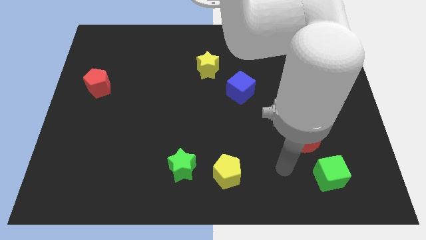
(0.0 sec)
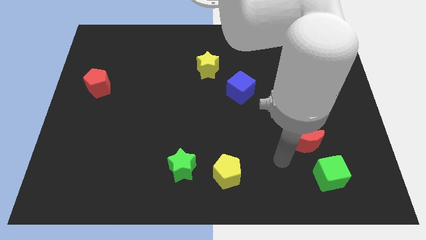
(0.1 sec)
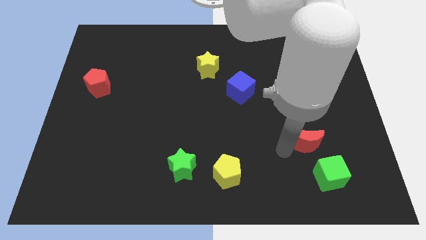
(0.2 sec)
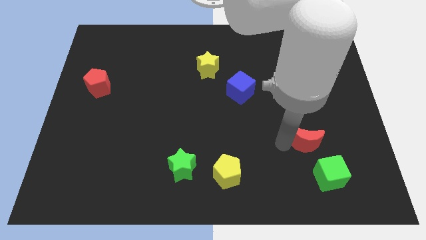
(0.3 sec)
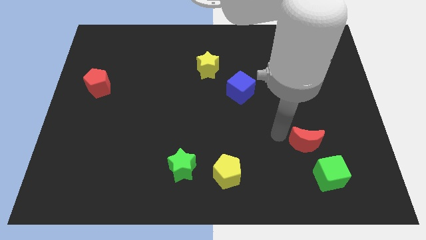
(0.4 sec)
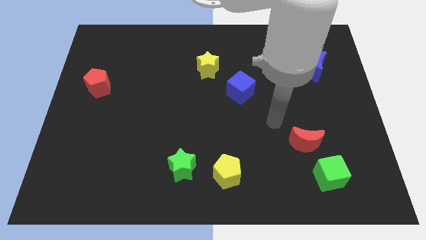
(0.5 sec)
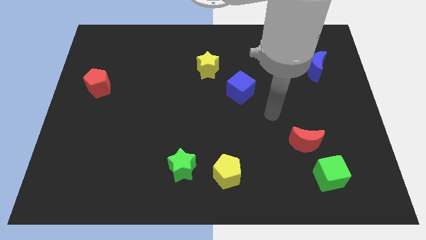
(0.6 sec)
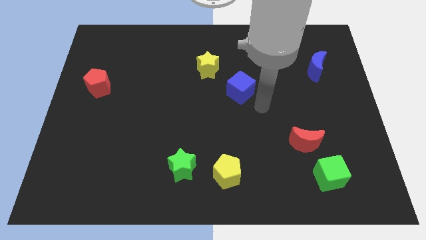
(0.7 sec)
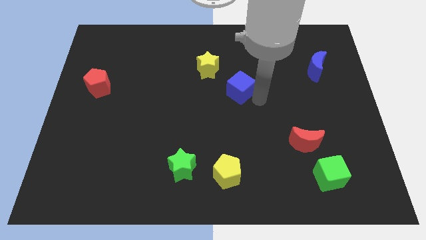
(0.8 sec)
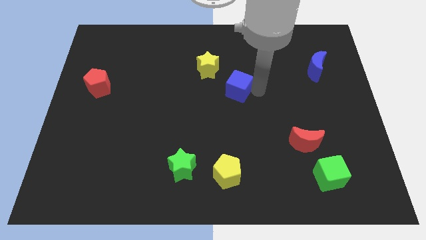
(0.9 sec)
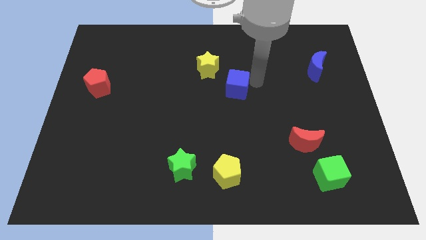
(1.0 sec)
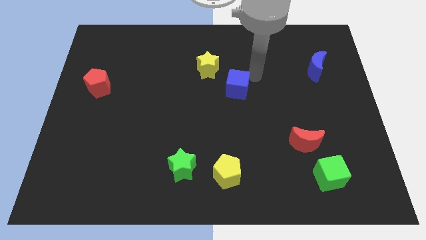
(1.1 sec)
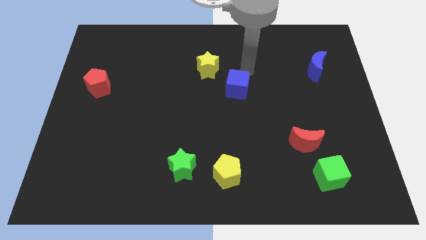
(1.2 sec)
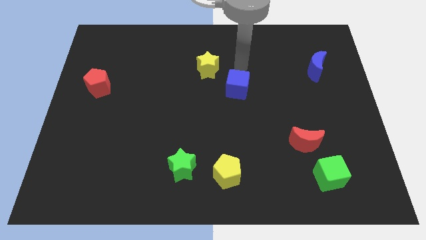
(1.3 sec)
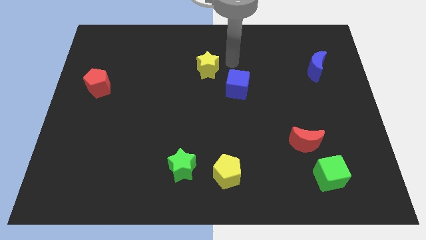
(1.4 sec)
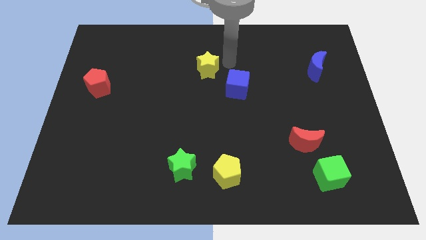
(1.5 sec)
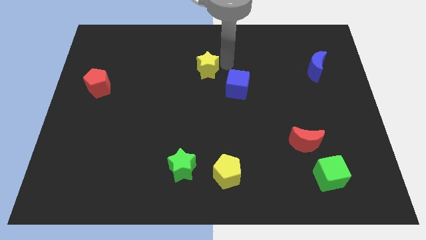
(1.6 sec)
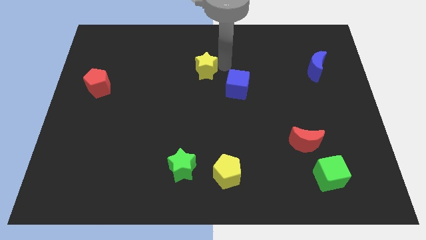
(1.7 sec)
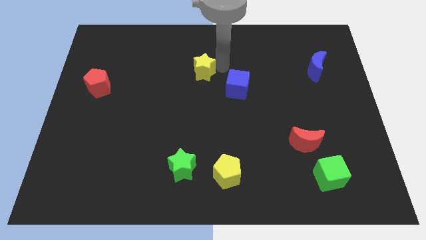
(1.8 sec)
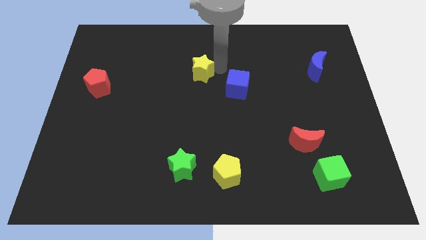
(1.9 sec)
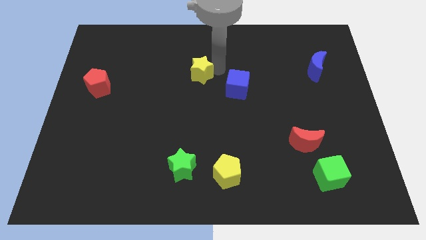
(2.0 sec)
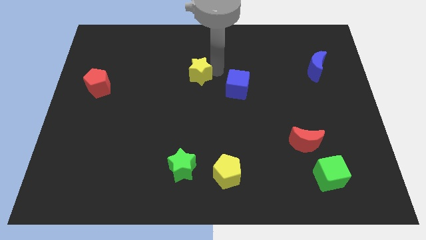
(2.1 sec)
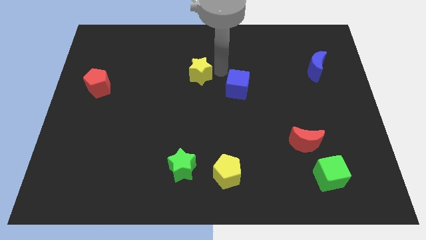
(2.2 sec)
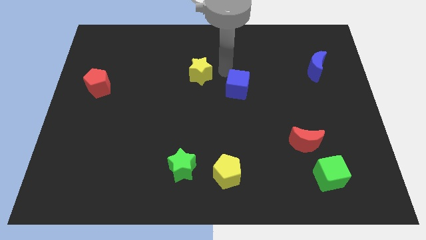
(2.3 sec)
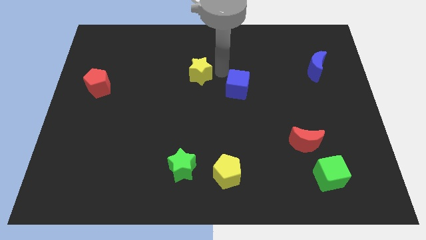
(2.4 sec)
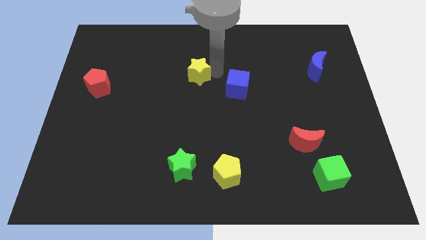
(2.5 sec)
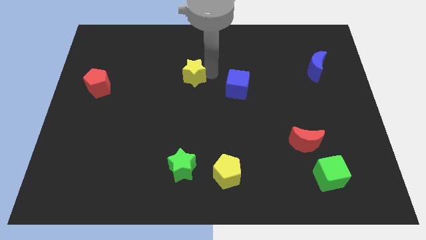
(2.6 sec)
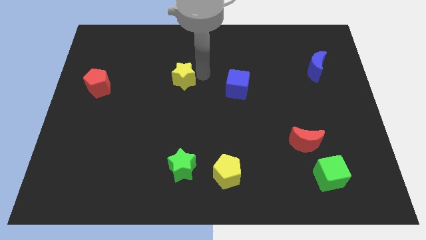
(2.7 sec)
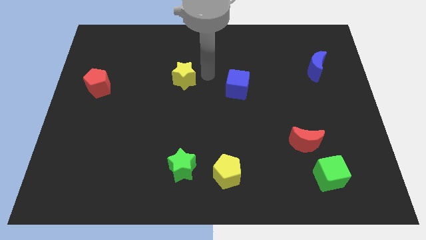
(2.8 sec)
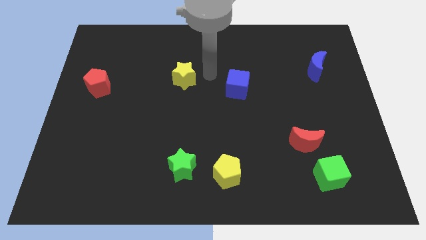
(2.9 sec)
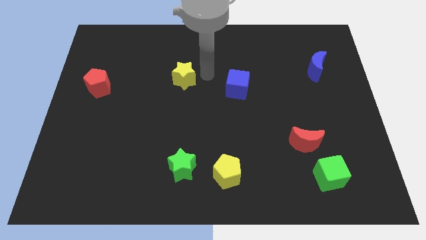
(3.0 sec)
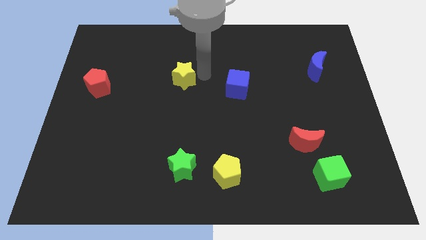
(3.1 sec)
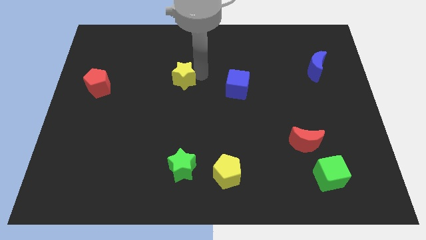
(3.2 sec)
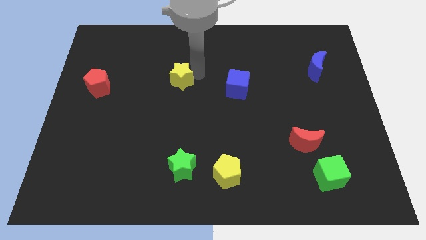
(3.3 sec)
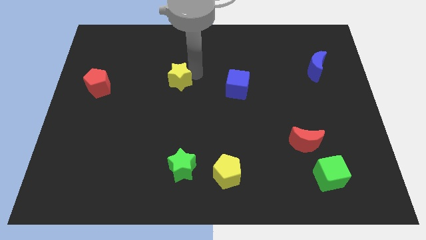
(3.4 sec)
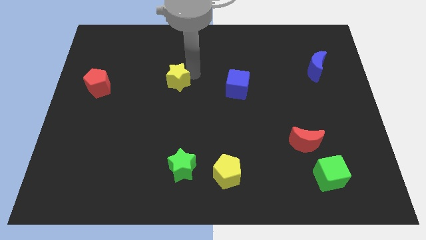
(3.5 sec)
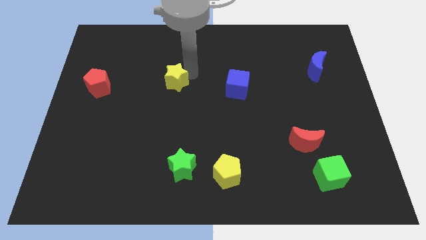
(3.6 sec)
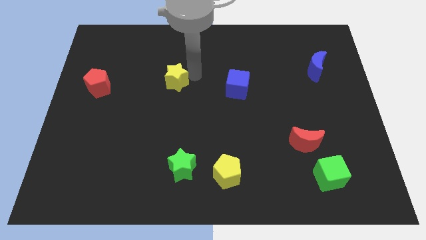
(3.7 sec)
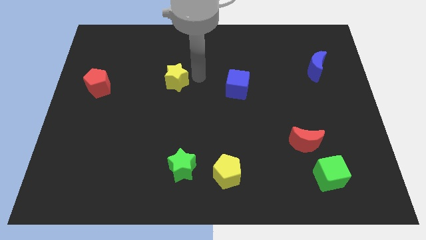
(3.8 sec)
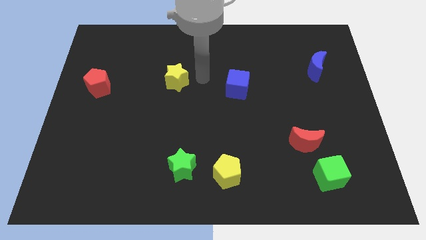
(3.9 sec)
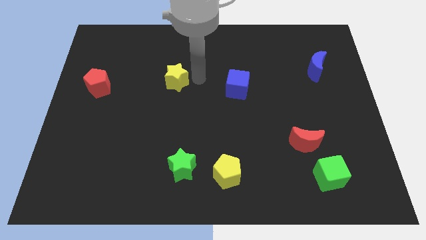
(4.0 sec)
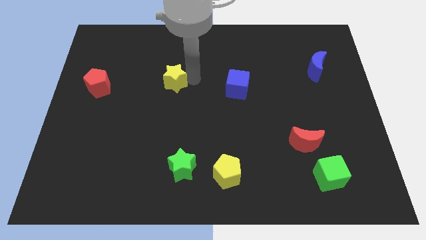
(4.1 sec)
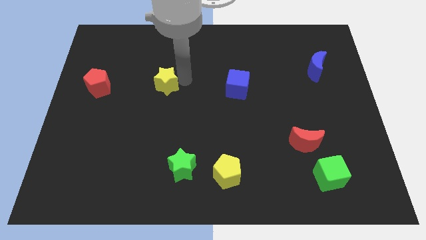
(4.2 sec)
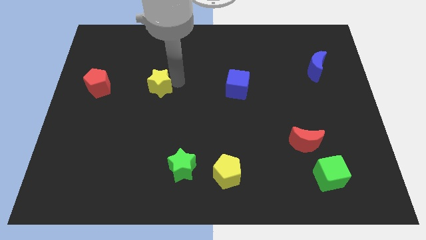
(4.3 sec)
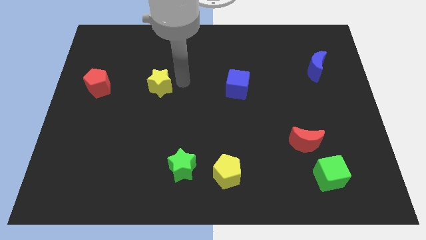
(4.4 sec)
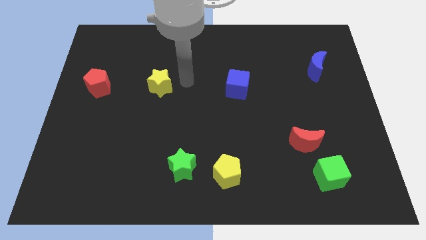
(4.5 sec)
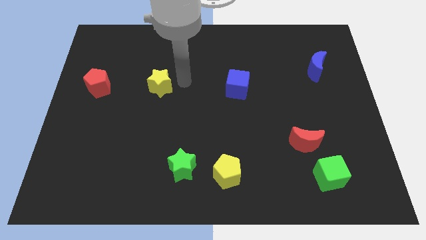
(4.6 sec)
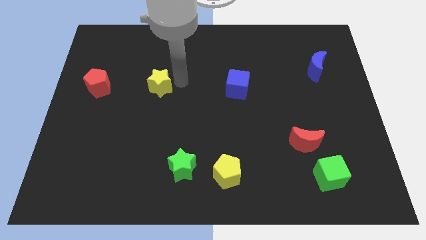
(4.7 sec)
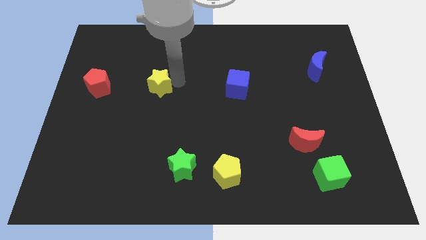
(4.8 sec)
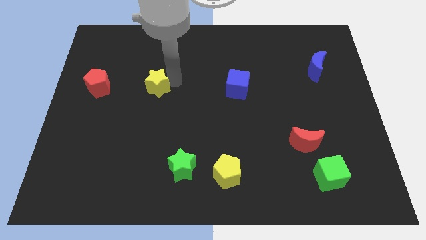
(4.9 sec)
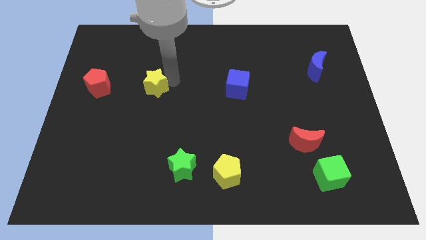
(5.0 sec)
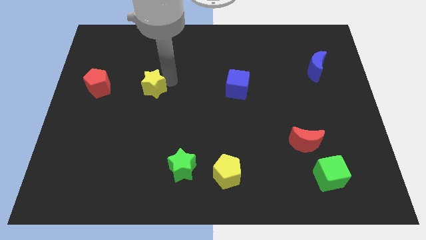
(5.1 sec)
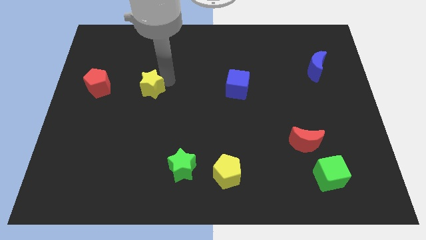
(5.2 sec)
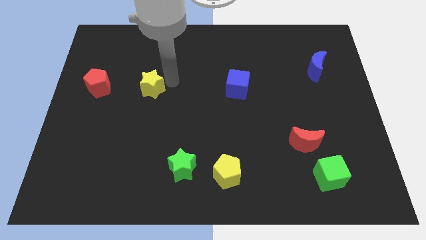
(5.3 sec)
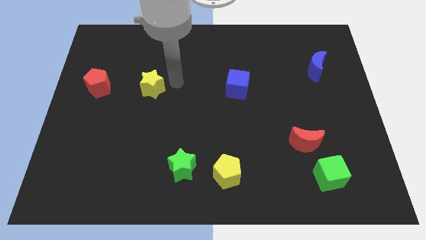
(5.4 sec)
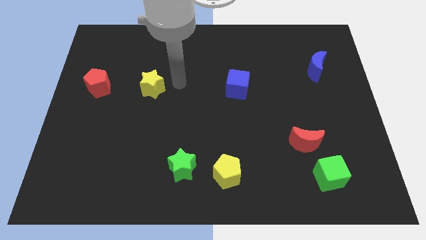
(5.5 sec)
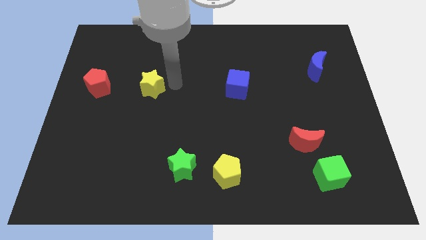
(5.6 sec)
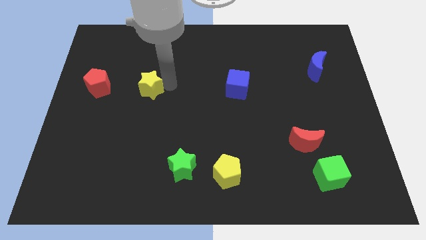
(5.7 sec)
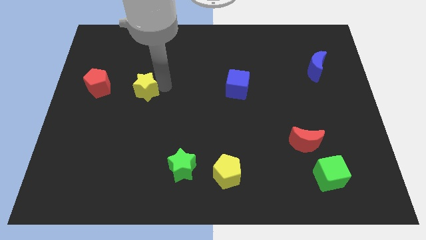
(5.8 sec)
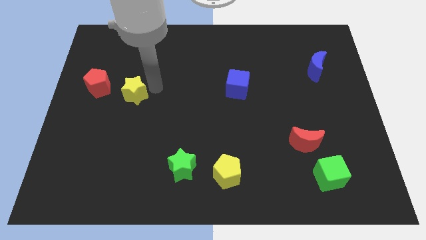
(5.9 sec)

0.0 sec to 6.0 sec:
put the yellow star to the bottom right of the red pentagon

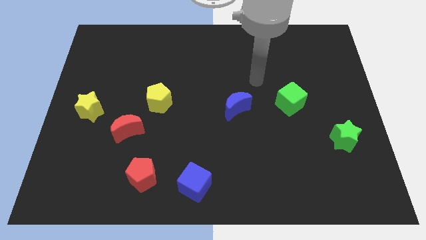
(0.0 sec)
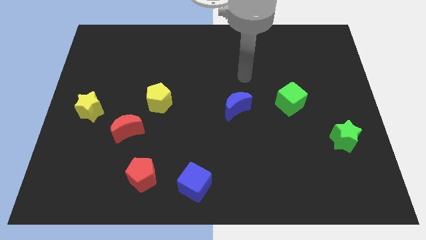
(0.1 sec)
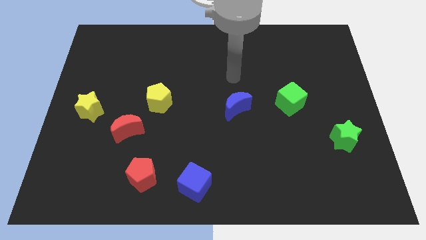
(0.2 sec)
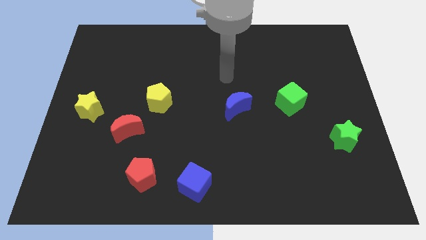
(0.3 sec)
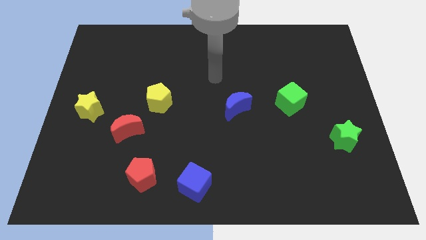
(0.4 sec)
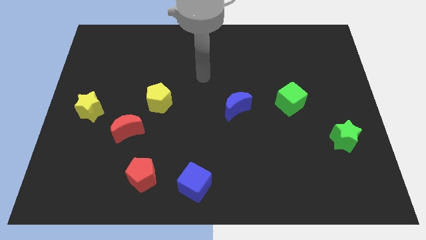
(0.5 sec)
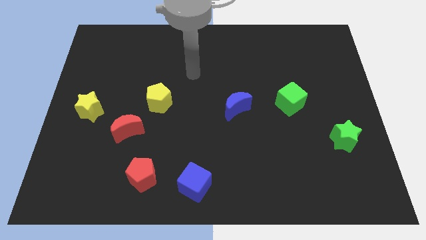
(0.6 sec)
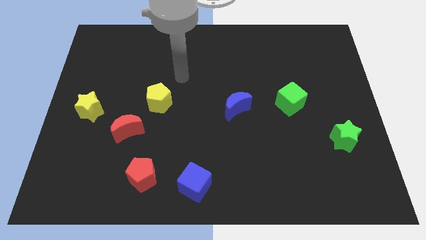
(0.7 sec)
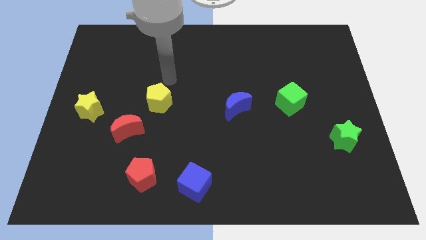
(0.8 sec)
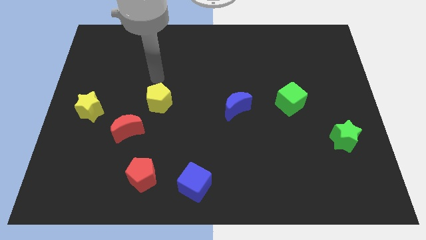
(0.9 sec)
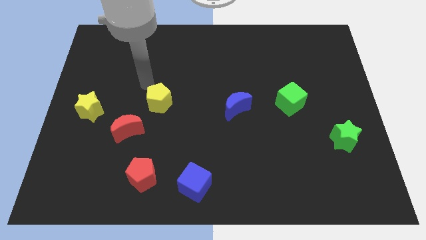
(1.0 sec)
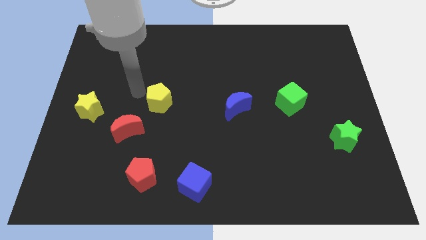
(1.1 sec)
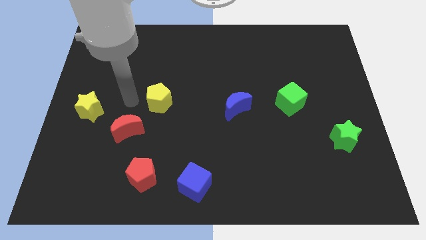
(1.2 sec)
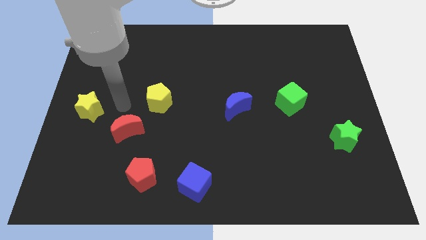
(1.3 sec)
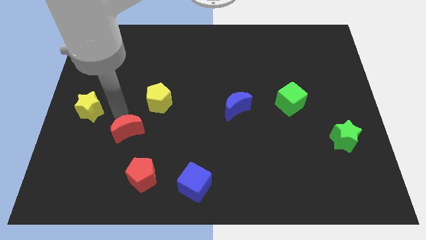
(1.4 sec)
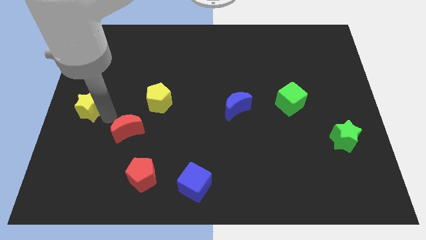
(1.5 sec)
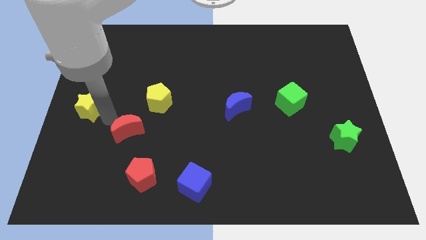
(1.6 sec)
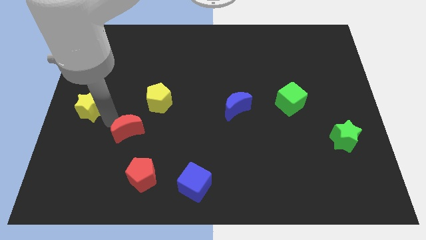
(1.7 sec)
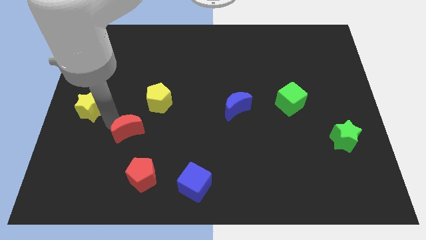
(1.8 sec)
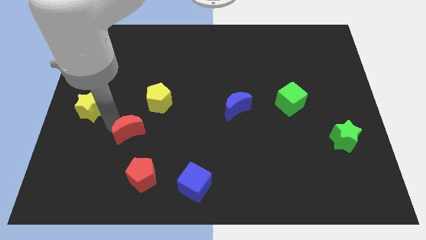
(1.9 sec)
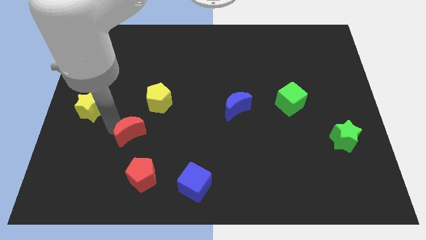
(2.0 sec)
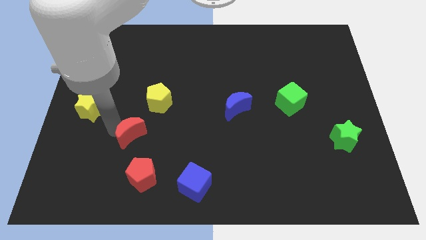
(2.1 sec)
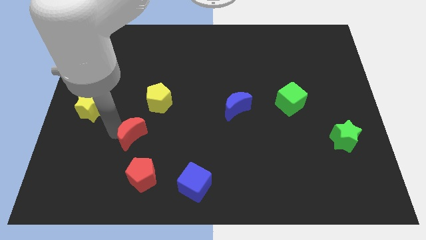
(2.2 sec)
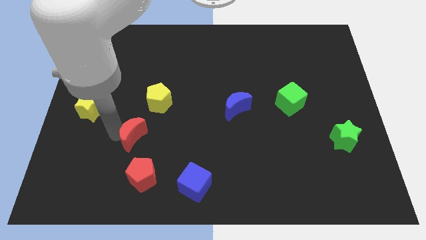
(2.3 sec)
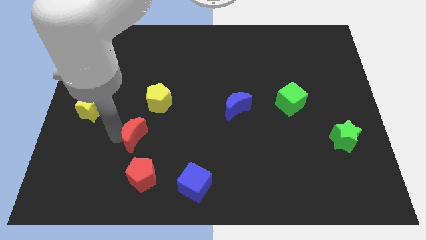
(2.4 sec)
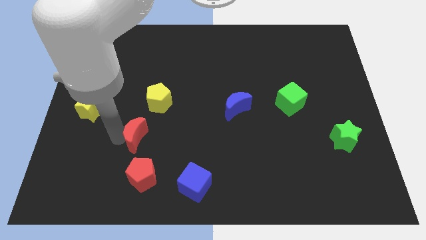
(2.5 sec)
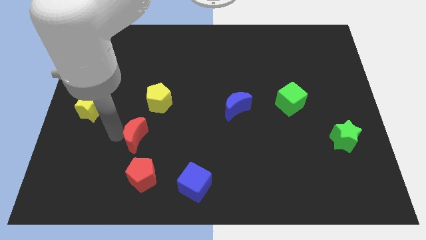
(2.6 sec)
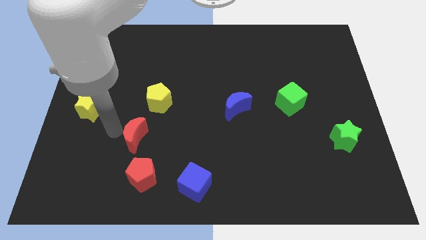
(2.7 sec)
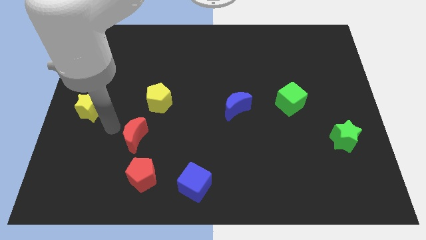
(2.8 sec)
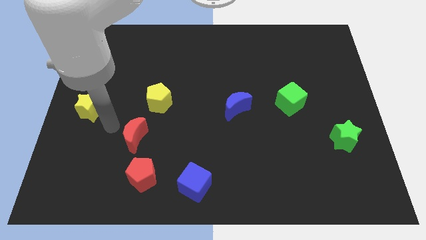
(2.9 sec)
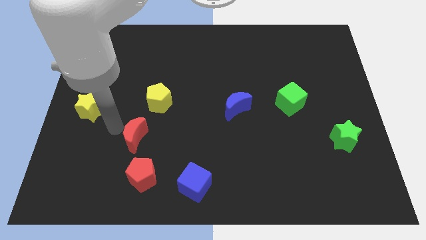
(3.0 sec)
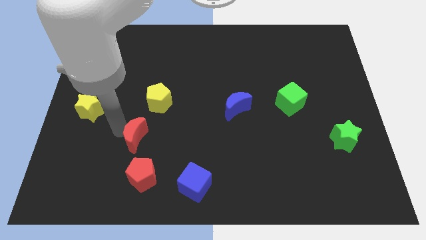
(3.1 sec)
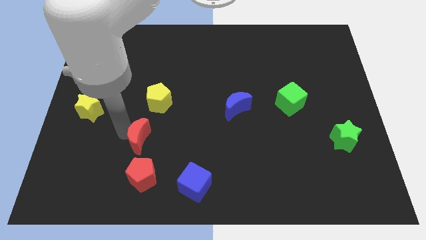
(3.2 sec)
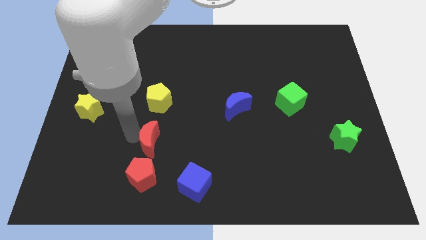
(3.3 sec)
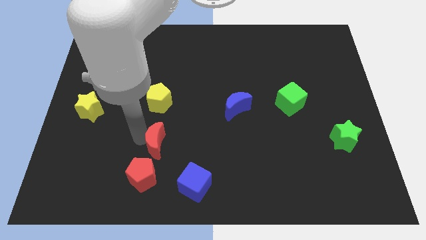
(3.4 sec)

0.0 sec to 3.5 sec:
put the red moon to the top right side of the red pentagon
